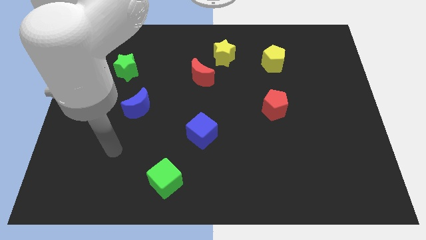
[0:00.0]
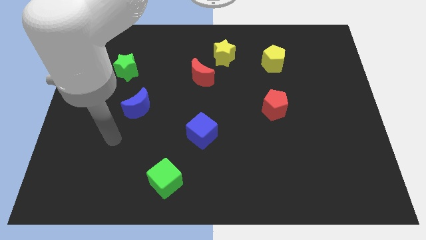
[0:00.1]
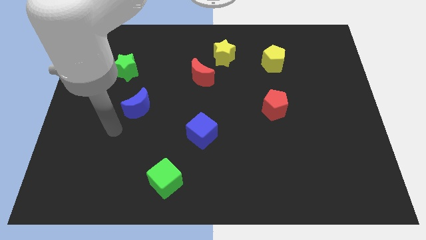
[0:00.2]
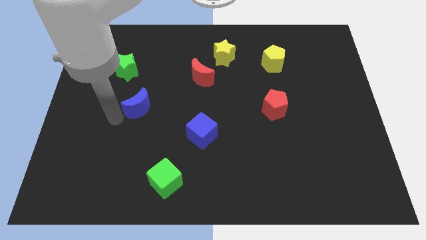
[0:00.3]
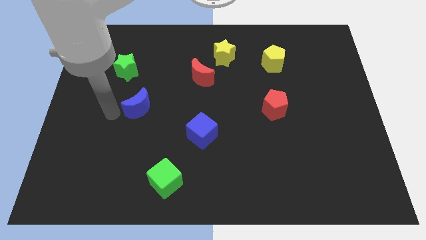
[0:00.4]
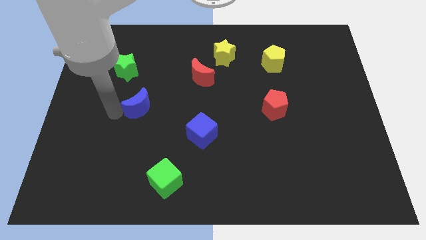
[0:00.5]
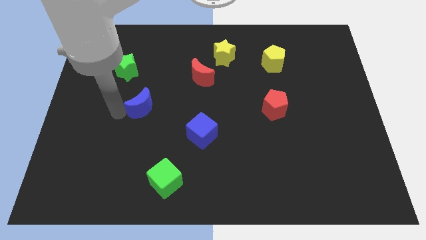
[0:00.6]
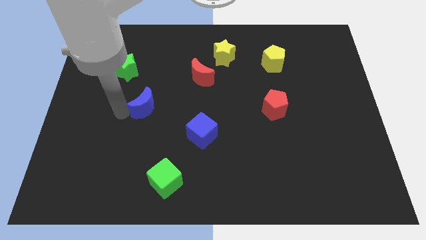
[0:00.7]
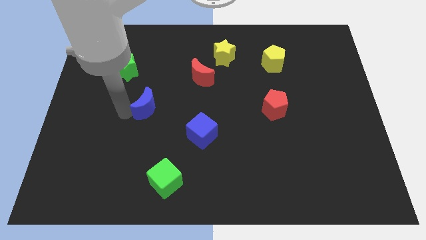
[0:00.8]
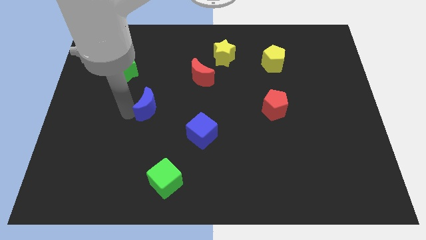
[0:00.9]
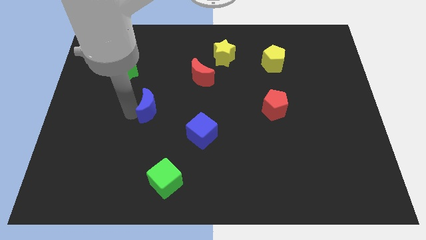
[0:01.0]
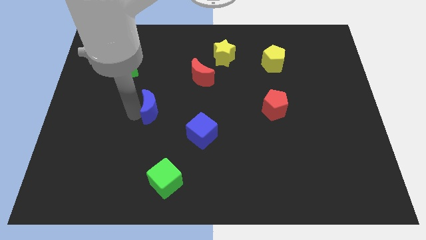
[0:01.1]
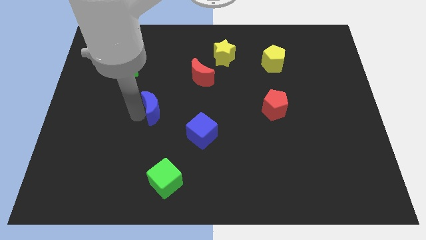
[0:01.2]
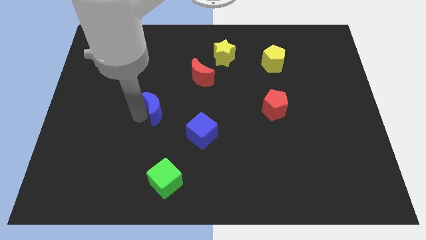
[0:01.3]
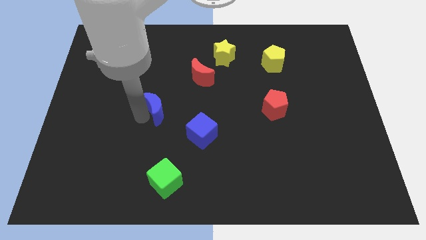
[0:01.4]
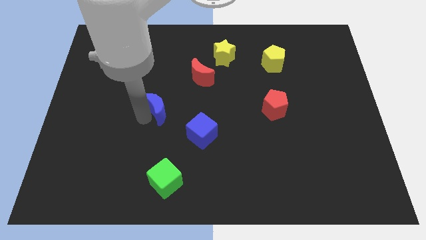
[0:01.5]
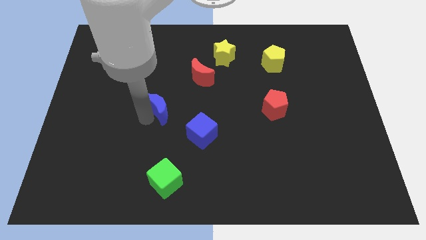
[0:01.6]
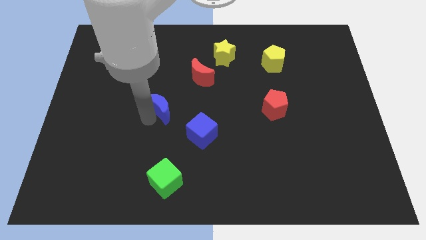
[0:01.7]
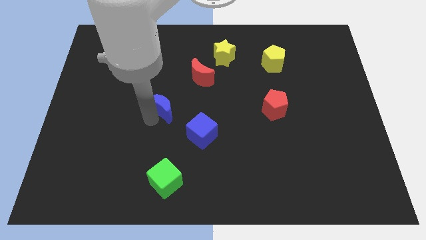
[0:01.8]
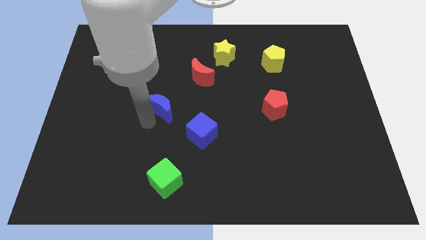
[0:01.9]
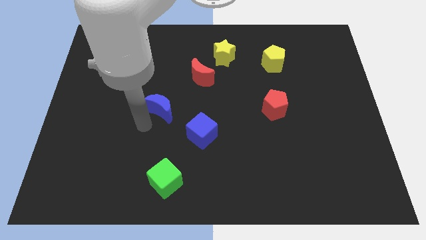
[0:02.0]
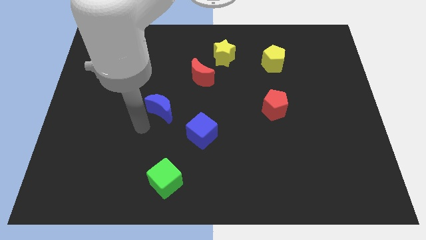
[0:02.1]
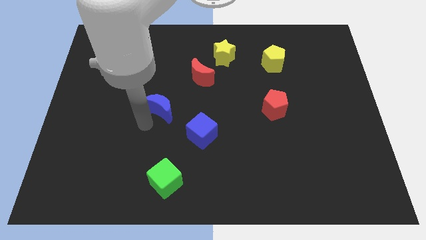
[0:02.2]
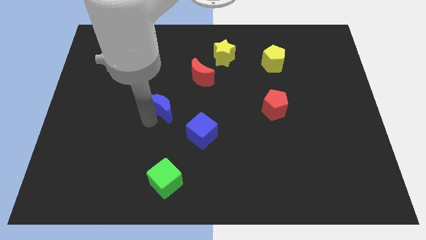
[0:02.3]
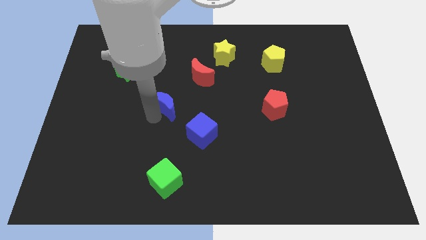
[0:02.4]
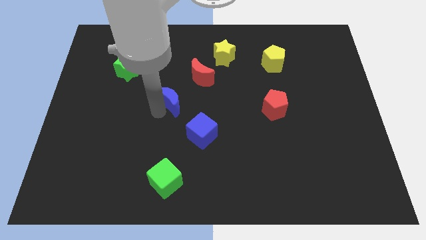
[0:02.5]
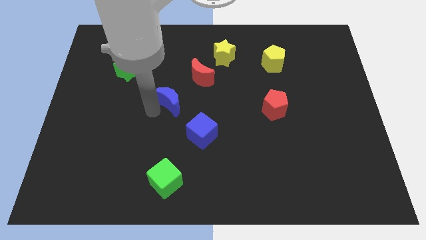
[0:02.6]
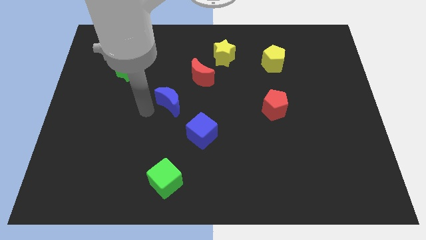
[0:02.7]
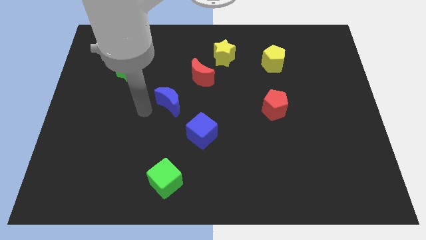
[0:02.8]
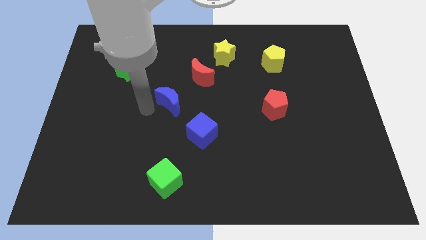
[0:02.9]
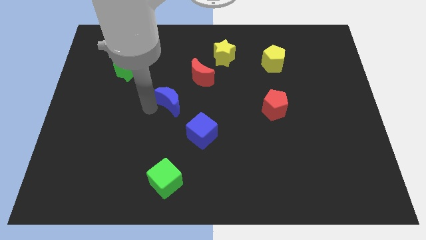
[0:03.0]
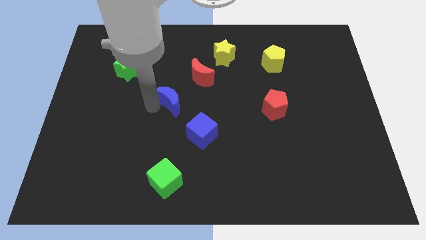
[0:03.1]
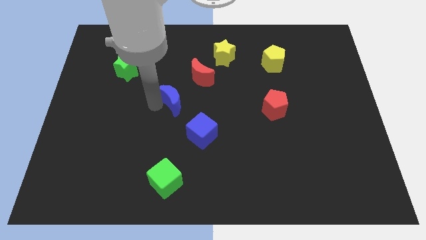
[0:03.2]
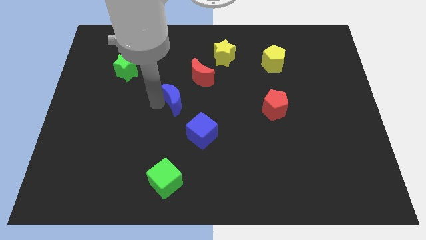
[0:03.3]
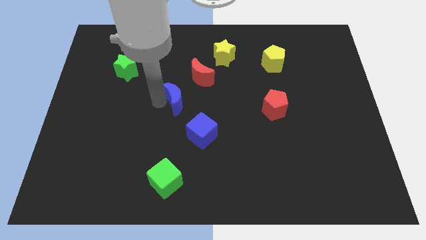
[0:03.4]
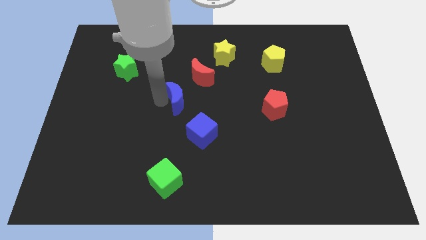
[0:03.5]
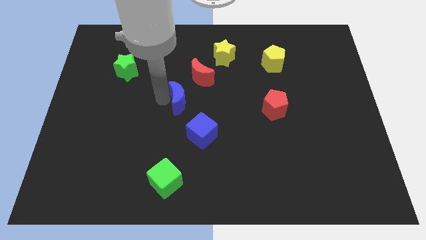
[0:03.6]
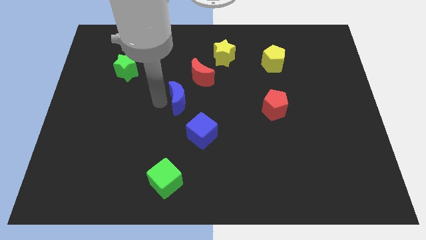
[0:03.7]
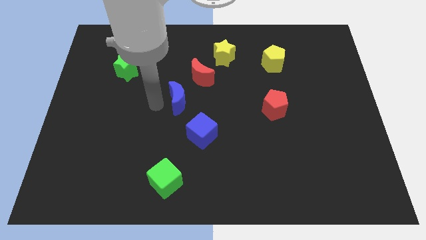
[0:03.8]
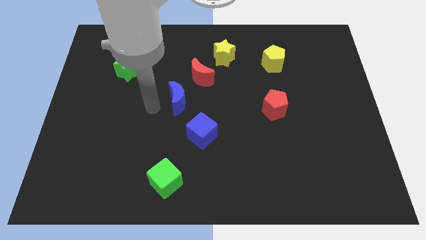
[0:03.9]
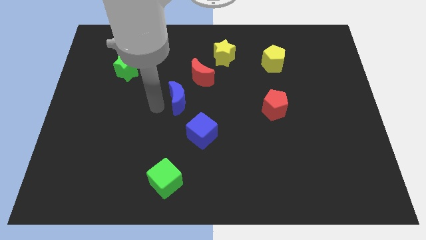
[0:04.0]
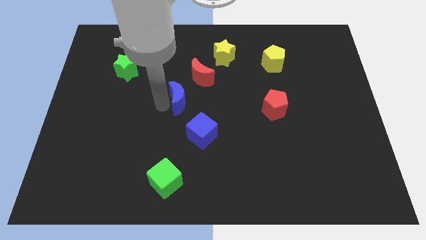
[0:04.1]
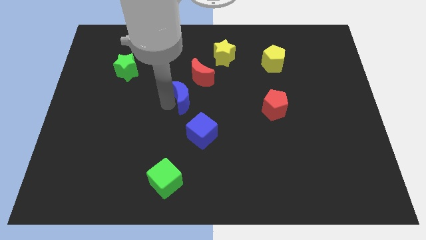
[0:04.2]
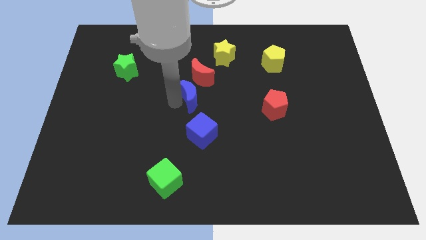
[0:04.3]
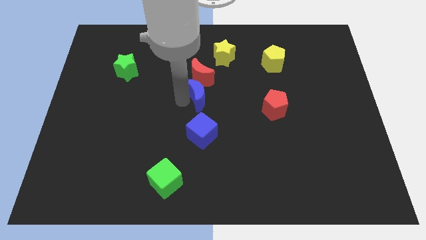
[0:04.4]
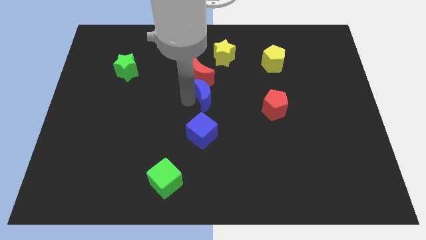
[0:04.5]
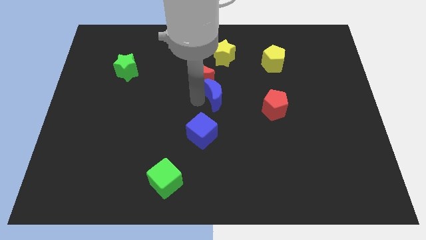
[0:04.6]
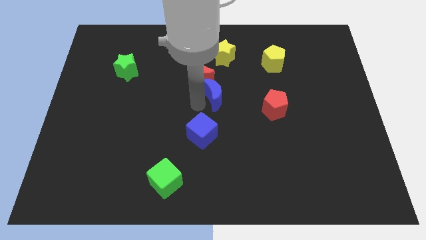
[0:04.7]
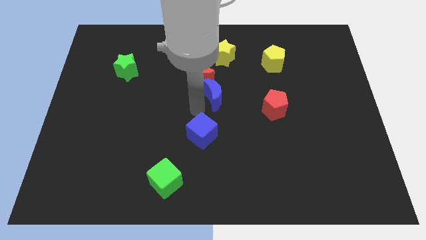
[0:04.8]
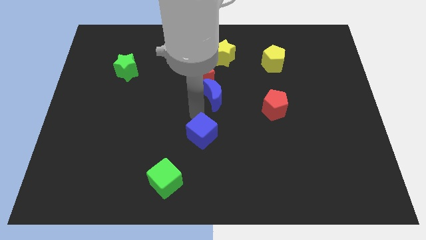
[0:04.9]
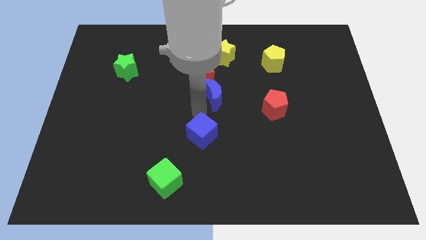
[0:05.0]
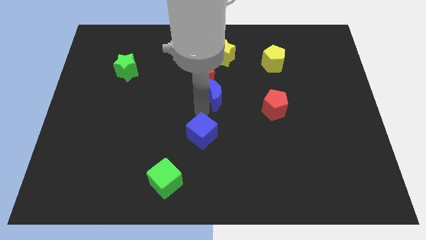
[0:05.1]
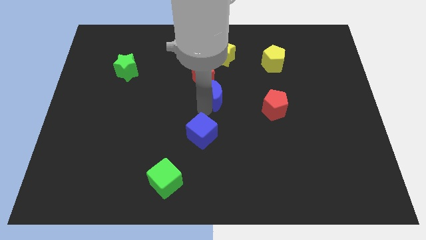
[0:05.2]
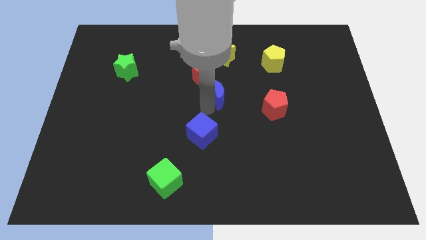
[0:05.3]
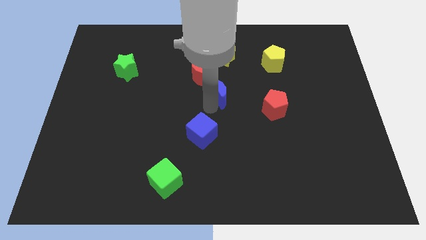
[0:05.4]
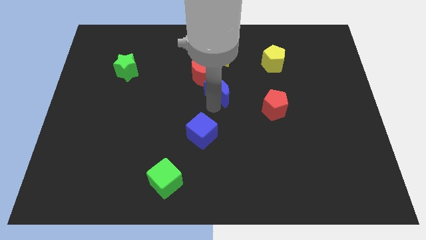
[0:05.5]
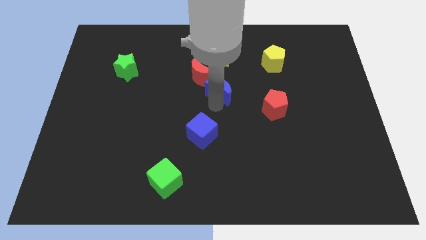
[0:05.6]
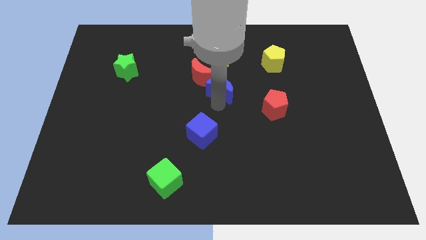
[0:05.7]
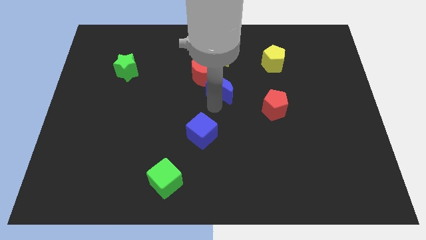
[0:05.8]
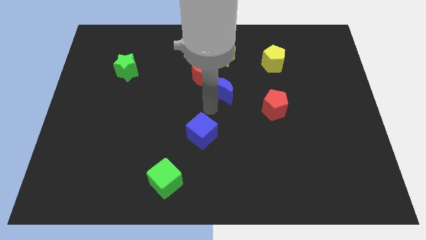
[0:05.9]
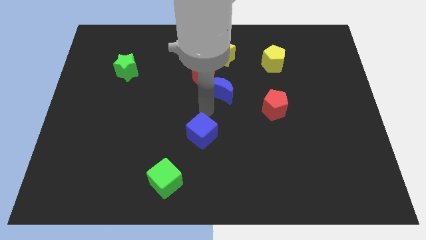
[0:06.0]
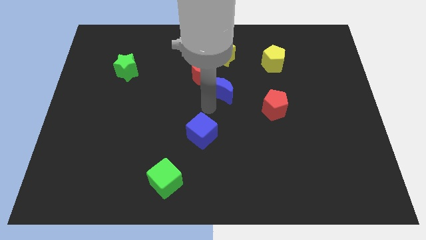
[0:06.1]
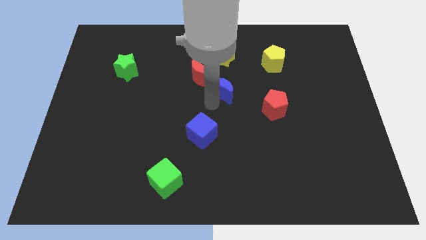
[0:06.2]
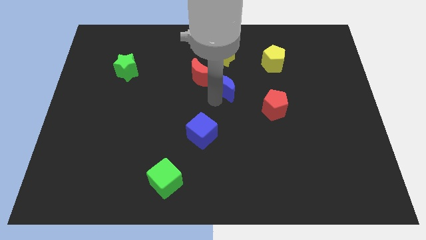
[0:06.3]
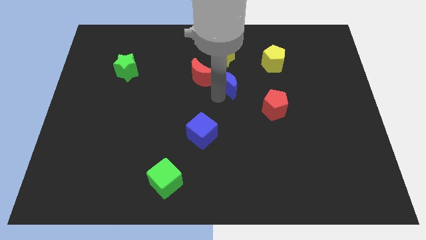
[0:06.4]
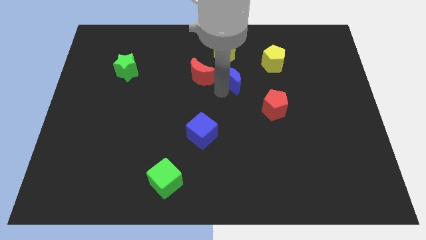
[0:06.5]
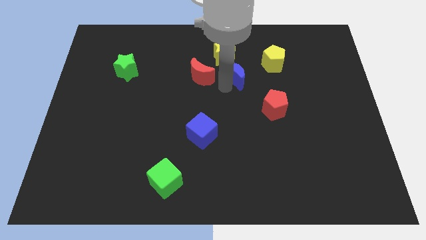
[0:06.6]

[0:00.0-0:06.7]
push the blue moon to the bottom right of the yellow star

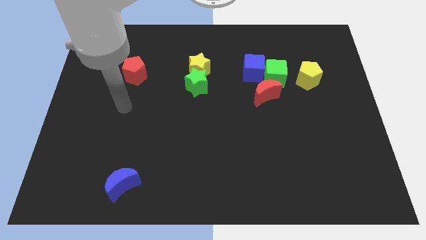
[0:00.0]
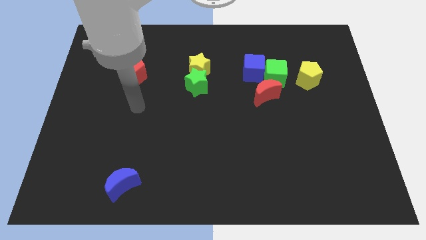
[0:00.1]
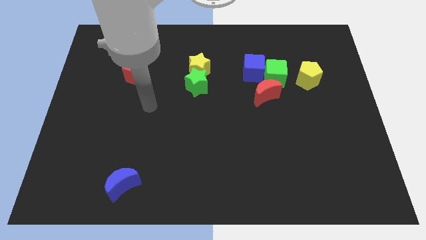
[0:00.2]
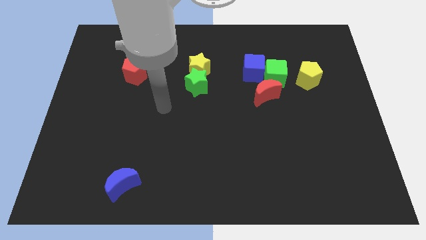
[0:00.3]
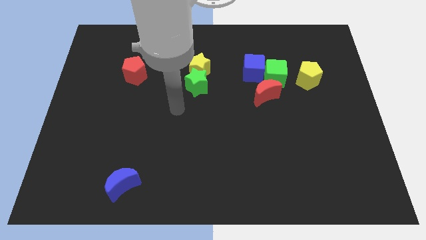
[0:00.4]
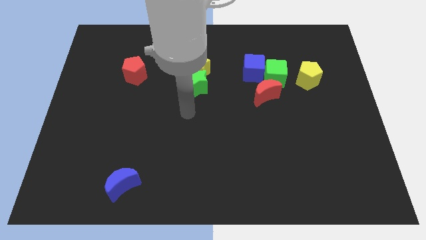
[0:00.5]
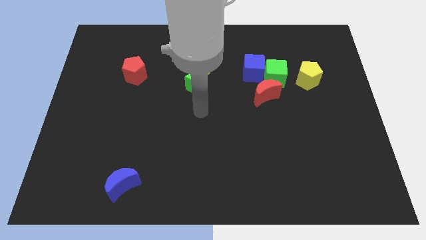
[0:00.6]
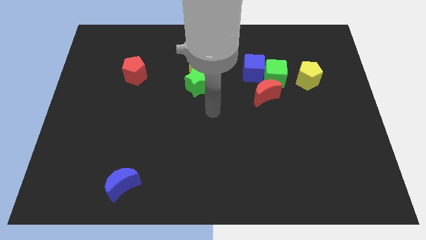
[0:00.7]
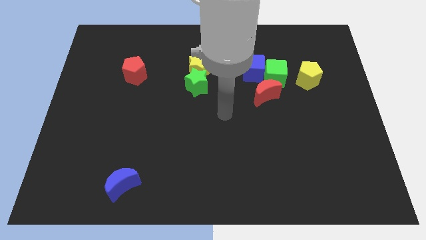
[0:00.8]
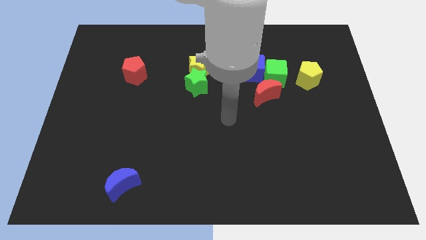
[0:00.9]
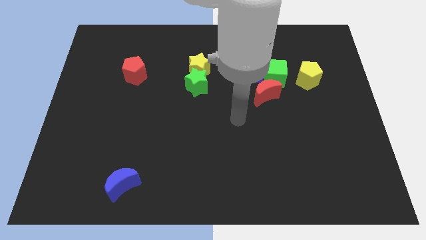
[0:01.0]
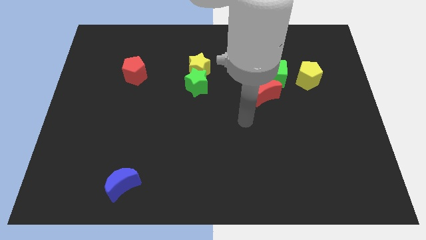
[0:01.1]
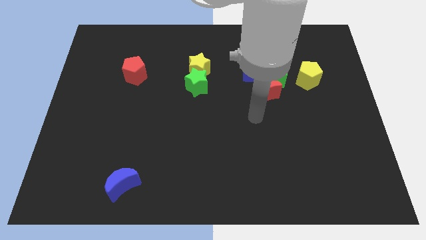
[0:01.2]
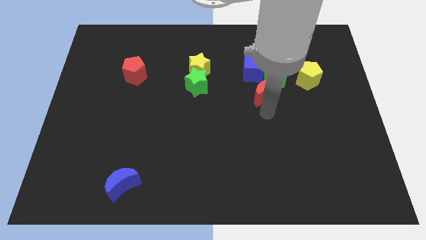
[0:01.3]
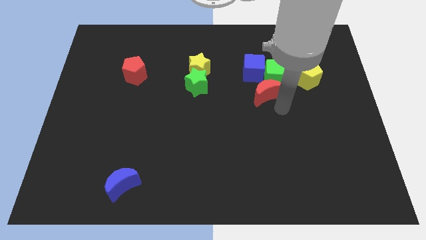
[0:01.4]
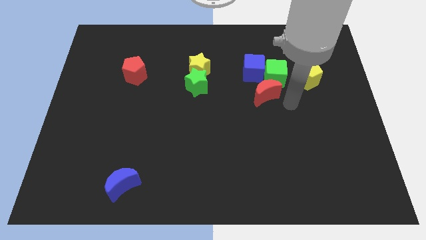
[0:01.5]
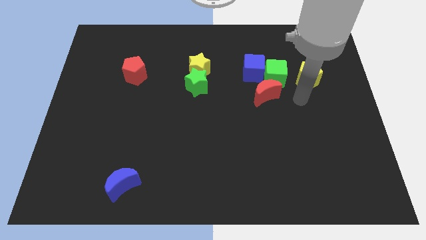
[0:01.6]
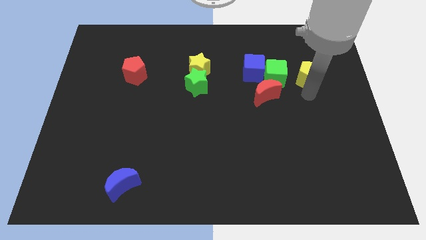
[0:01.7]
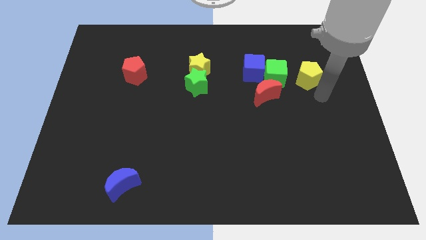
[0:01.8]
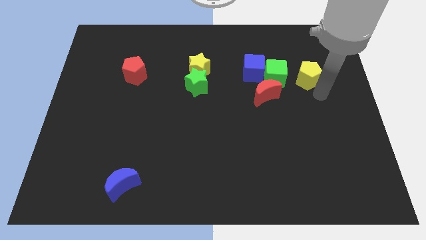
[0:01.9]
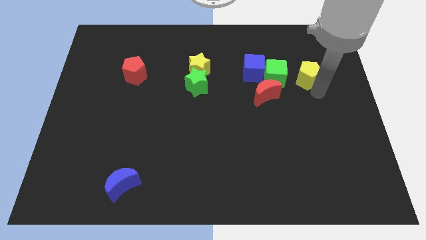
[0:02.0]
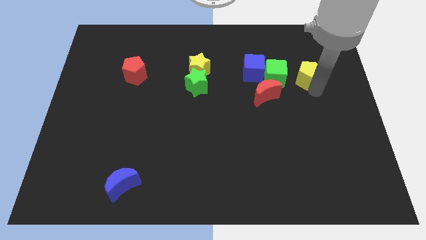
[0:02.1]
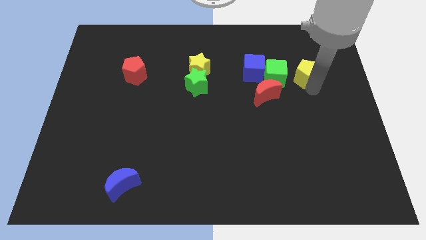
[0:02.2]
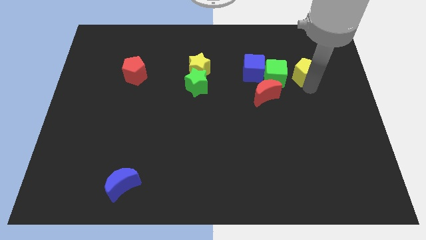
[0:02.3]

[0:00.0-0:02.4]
put the yellow pentagon to the top right of the green cube
